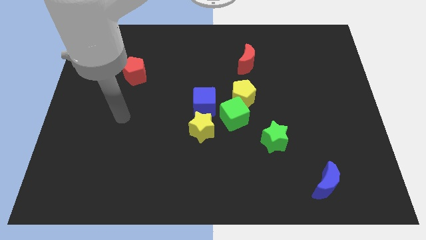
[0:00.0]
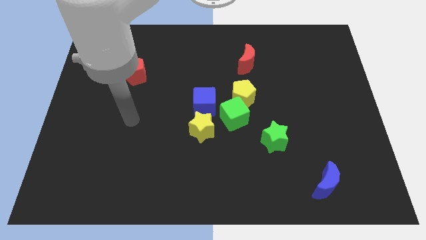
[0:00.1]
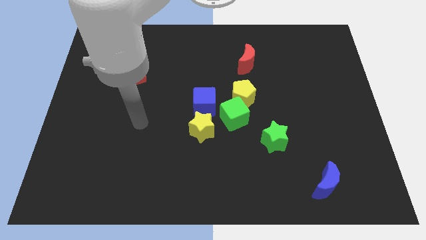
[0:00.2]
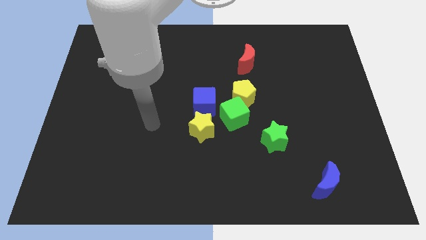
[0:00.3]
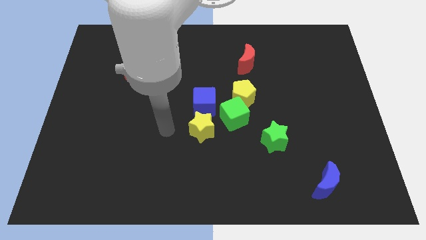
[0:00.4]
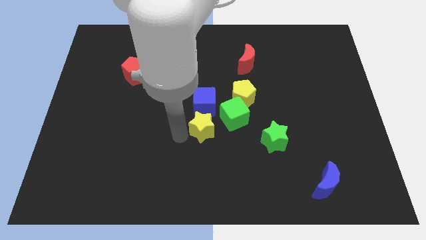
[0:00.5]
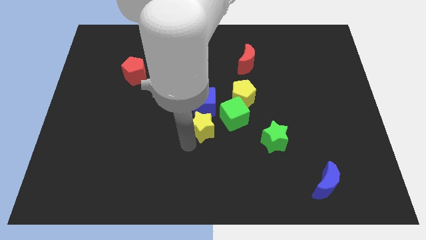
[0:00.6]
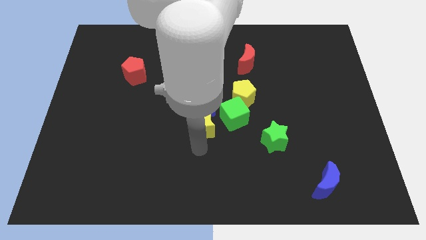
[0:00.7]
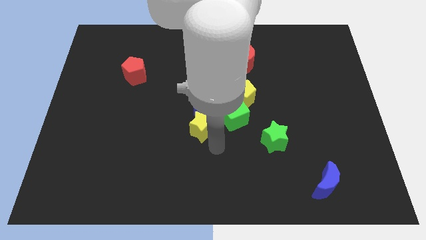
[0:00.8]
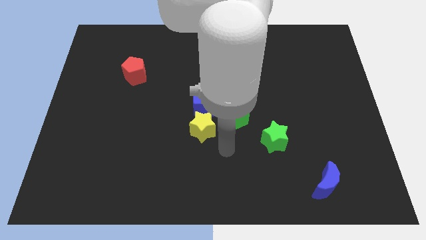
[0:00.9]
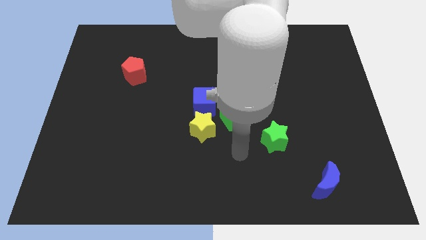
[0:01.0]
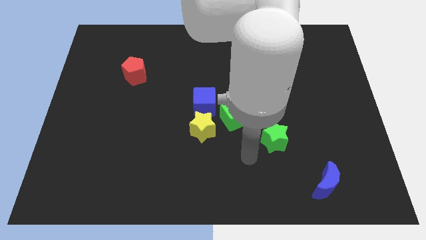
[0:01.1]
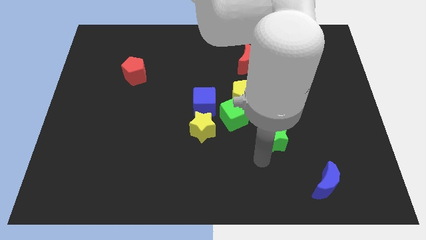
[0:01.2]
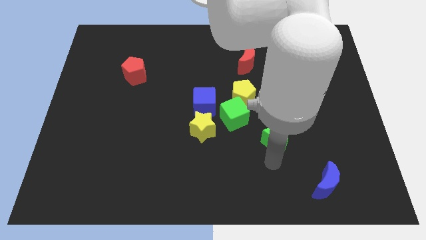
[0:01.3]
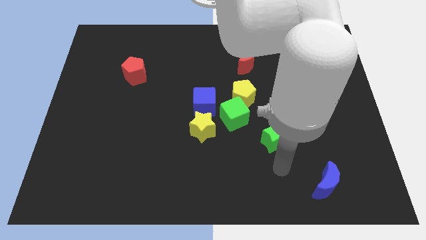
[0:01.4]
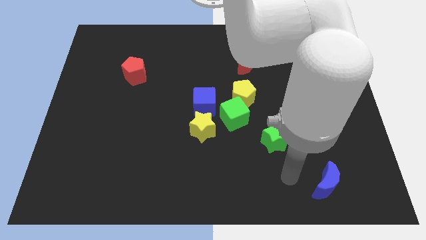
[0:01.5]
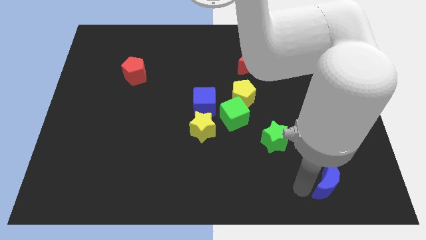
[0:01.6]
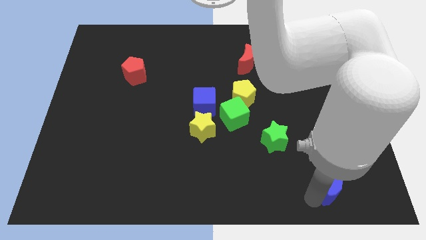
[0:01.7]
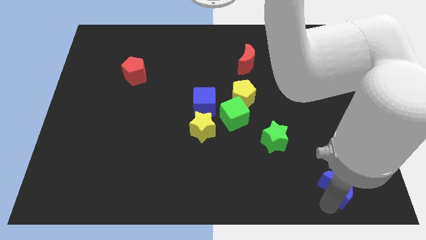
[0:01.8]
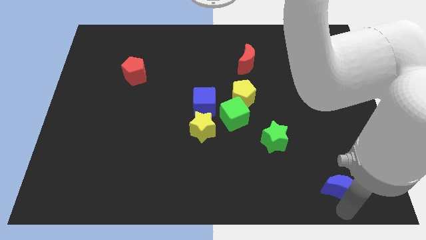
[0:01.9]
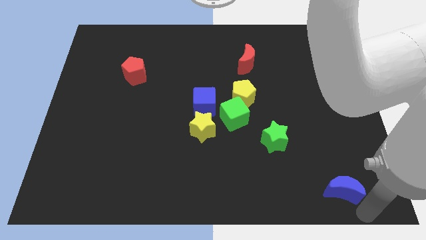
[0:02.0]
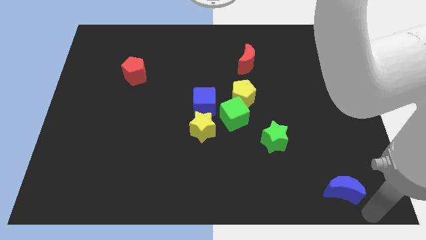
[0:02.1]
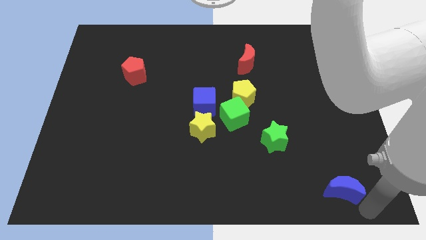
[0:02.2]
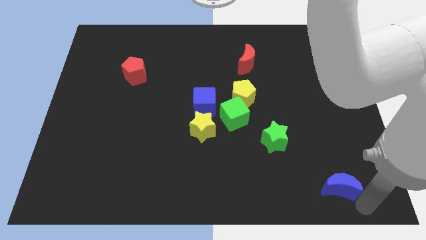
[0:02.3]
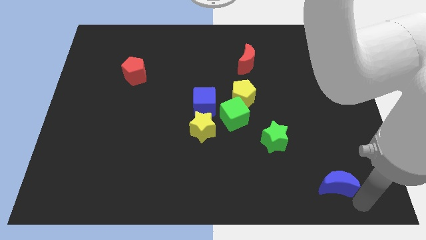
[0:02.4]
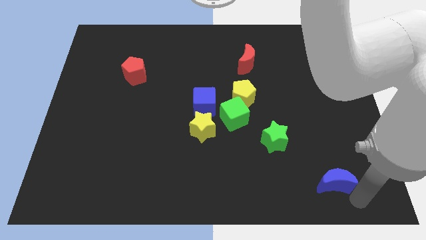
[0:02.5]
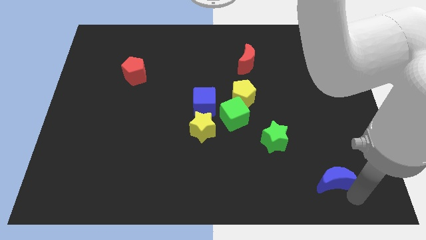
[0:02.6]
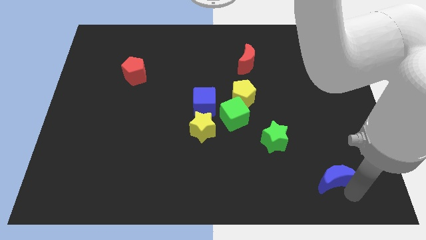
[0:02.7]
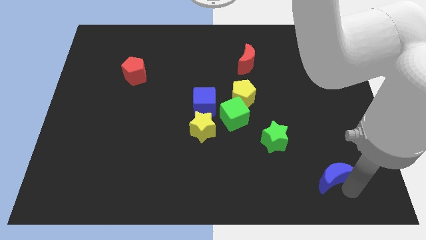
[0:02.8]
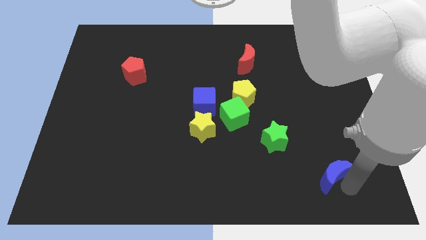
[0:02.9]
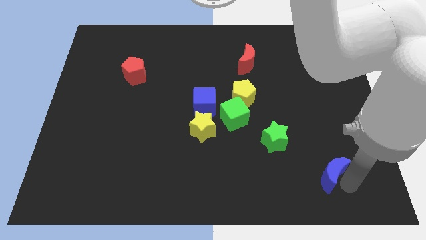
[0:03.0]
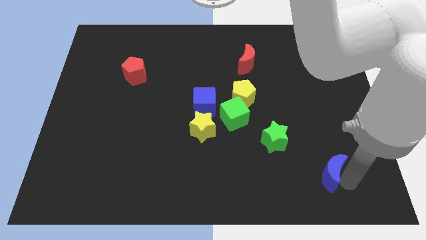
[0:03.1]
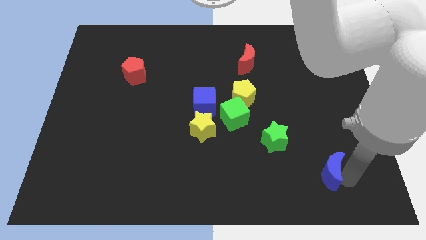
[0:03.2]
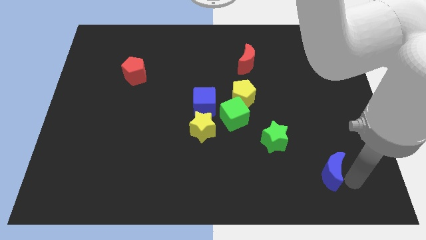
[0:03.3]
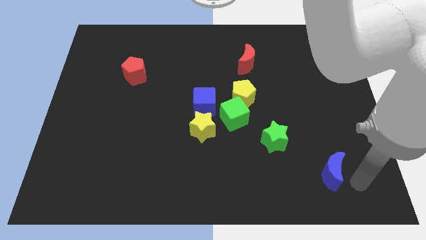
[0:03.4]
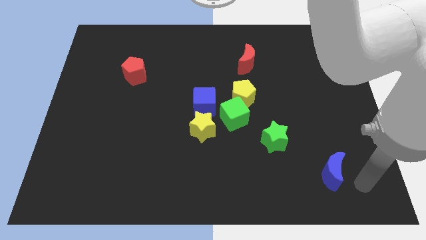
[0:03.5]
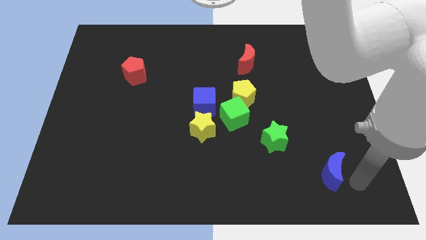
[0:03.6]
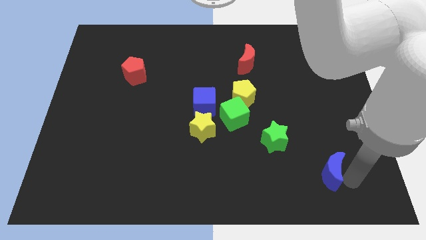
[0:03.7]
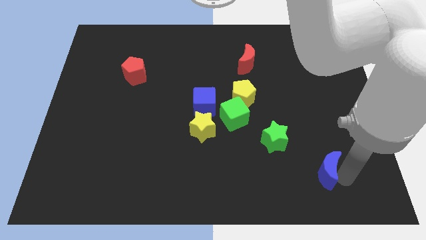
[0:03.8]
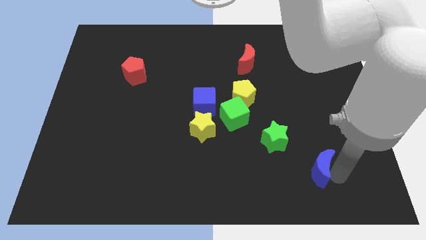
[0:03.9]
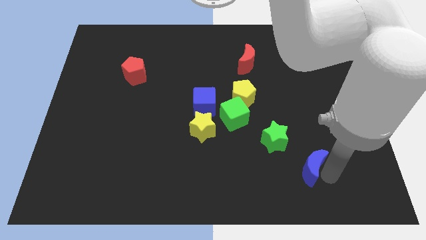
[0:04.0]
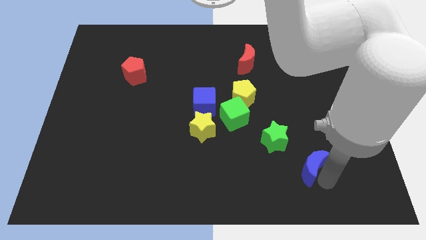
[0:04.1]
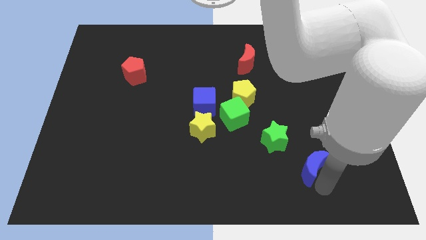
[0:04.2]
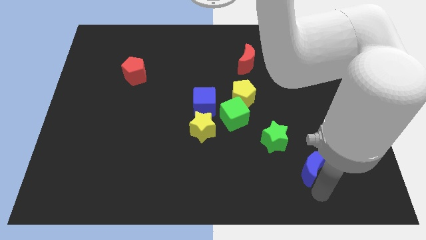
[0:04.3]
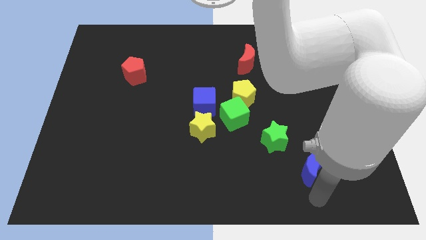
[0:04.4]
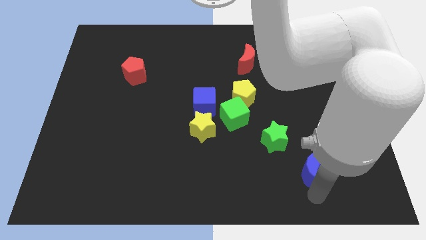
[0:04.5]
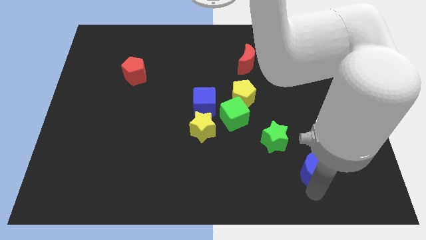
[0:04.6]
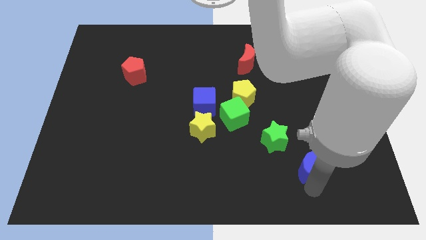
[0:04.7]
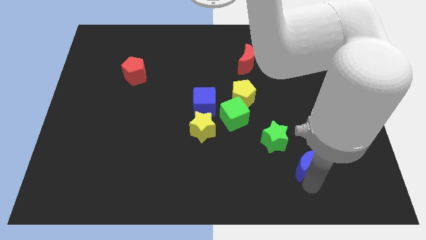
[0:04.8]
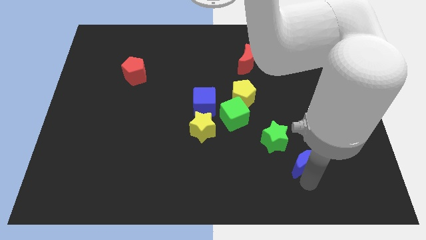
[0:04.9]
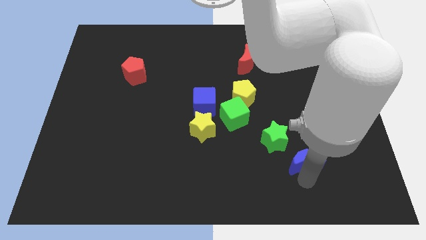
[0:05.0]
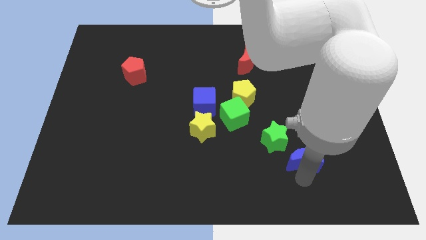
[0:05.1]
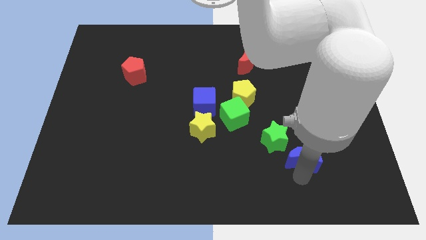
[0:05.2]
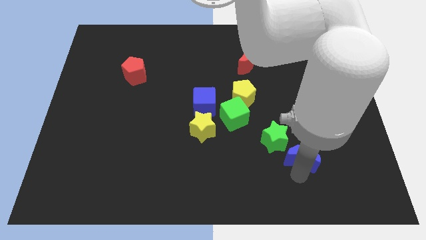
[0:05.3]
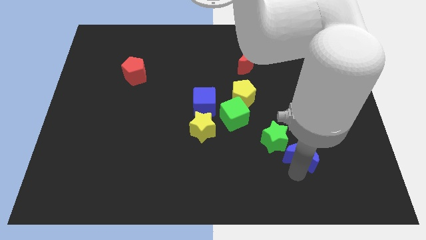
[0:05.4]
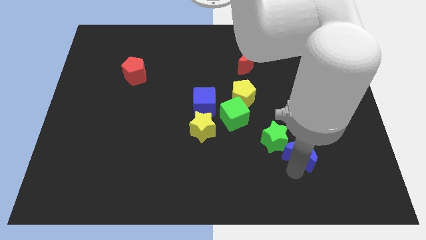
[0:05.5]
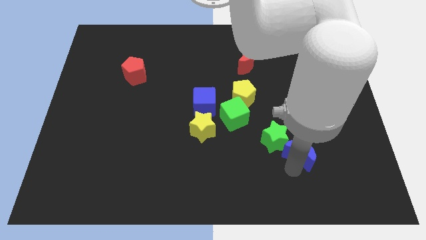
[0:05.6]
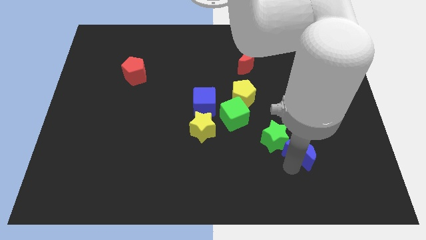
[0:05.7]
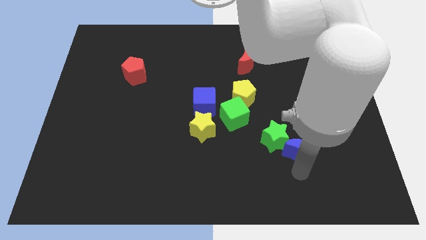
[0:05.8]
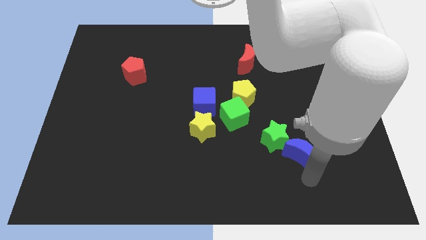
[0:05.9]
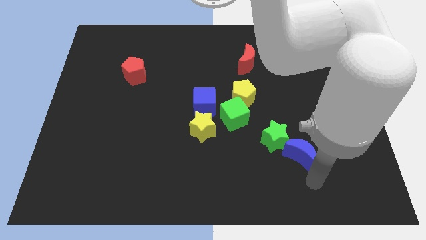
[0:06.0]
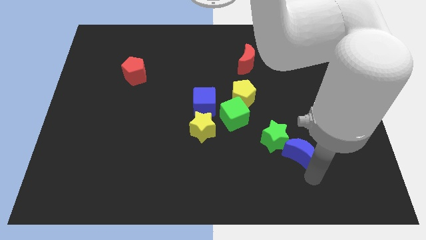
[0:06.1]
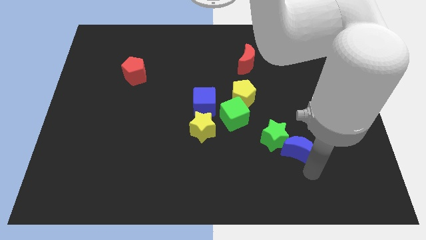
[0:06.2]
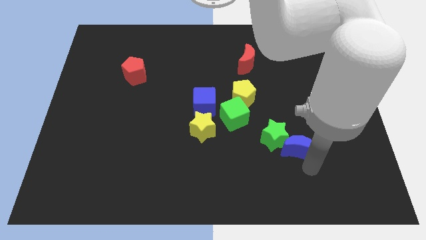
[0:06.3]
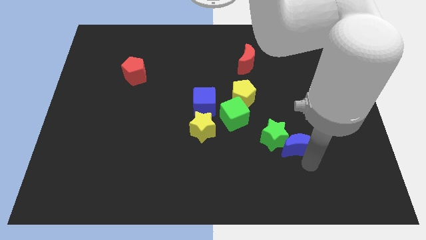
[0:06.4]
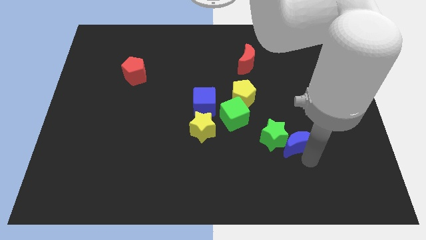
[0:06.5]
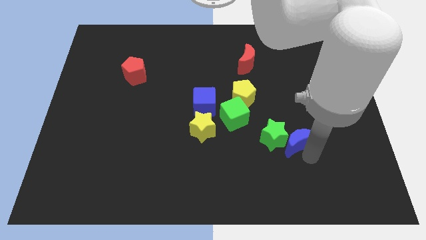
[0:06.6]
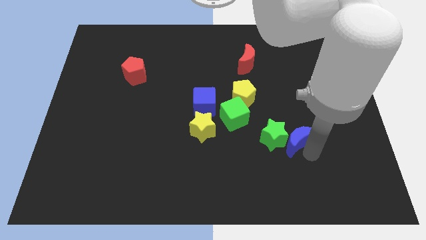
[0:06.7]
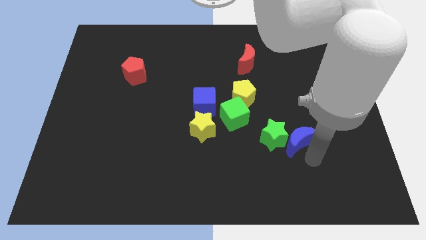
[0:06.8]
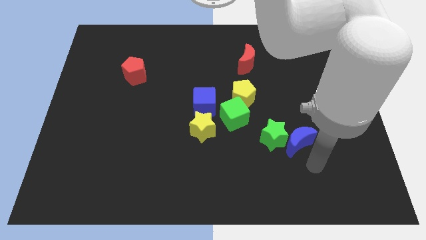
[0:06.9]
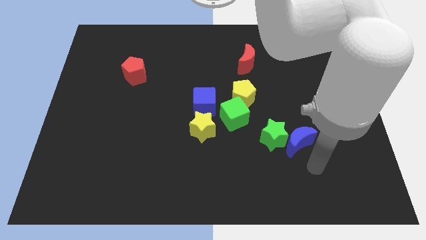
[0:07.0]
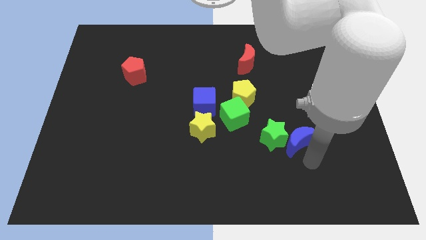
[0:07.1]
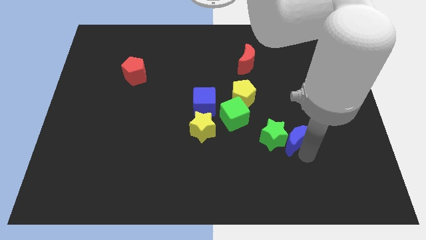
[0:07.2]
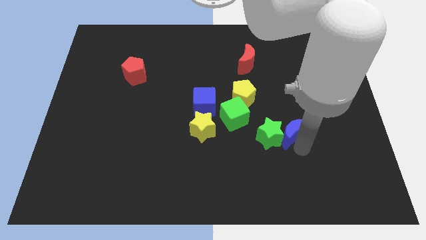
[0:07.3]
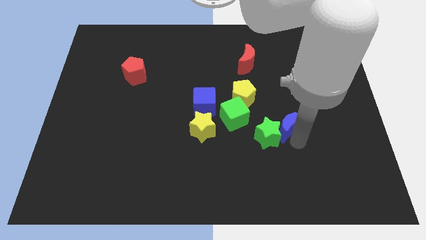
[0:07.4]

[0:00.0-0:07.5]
move the blue moon right of the green cube

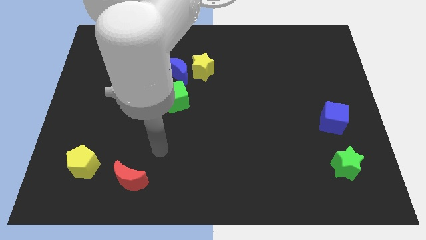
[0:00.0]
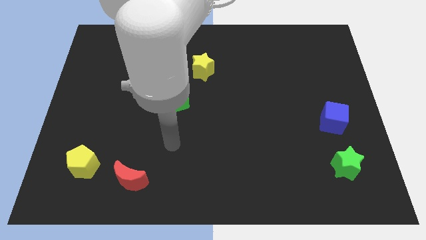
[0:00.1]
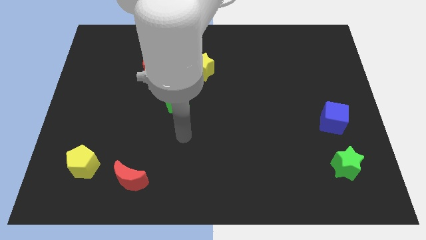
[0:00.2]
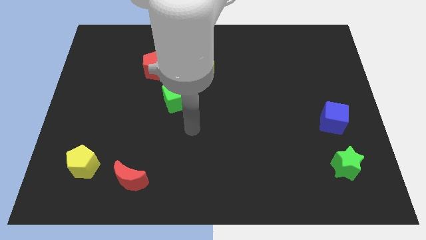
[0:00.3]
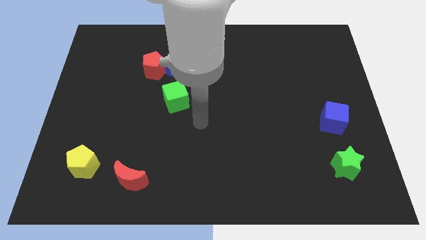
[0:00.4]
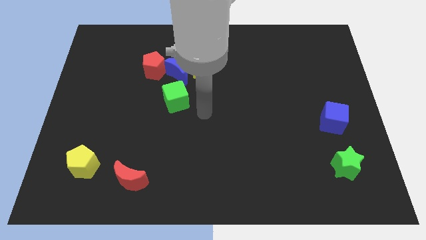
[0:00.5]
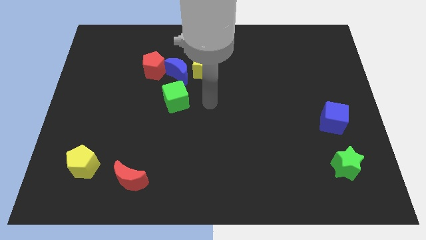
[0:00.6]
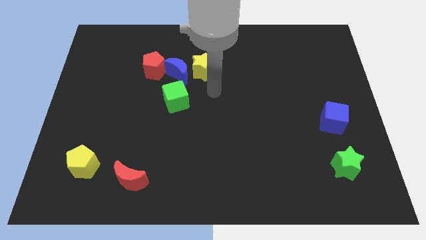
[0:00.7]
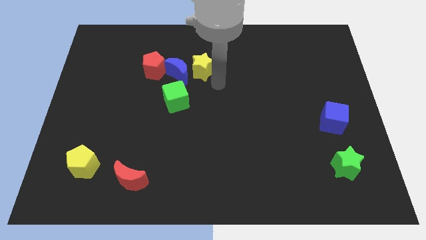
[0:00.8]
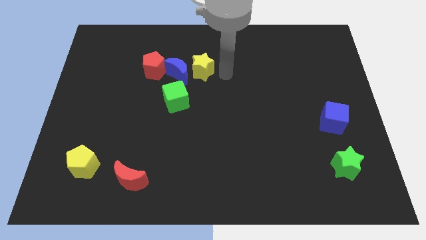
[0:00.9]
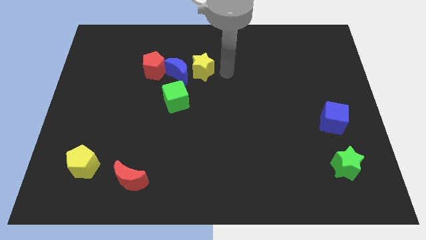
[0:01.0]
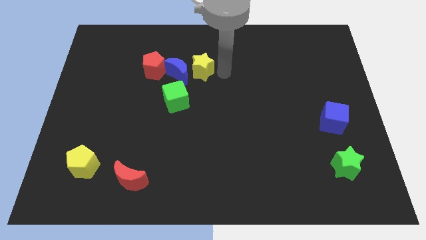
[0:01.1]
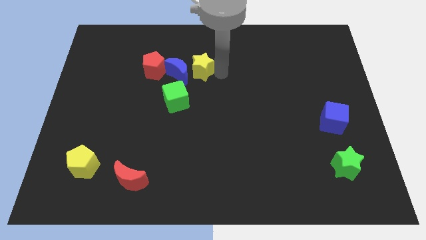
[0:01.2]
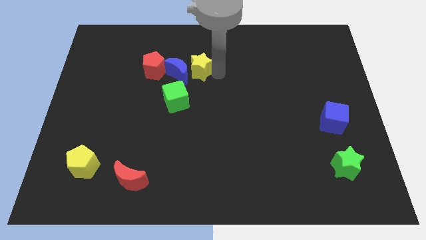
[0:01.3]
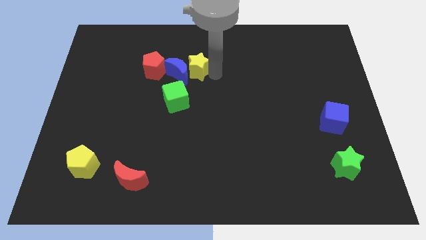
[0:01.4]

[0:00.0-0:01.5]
push the yellow star to the top side of the green cube
